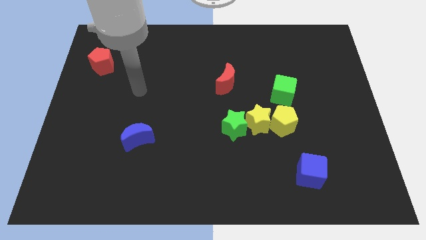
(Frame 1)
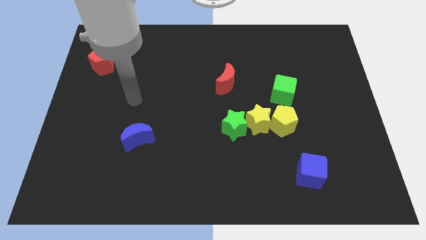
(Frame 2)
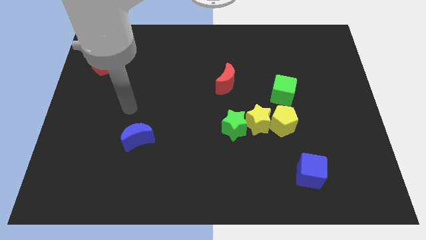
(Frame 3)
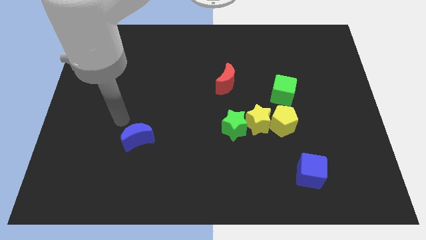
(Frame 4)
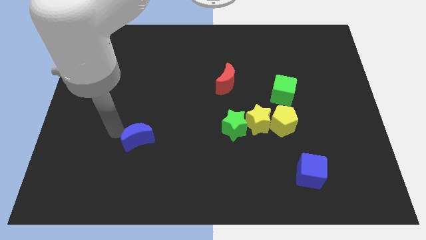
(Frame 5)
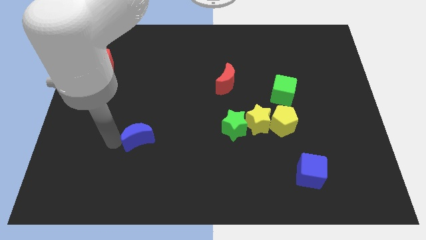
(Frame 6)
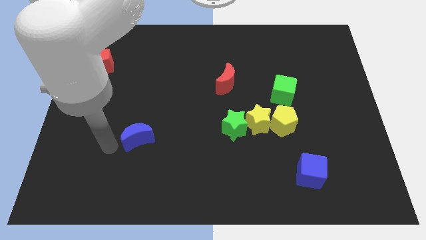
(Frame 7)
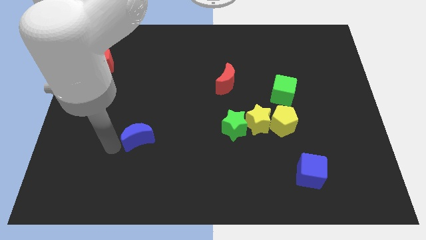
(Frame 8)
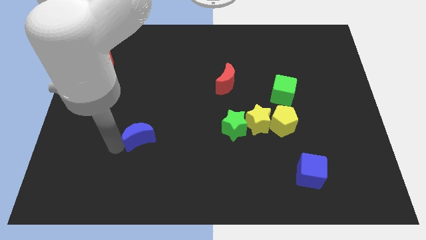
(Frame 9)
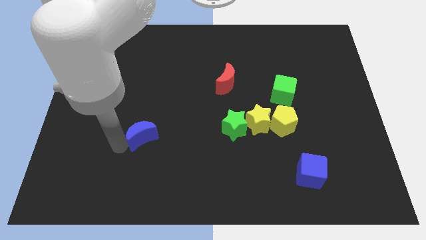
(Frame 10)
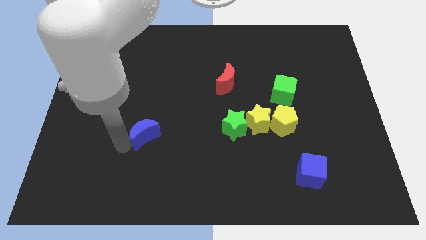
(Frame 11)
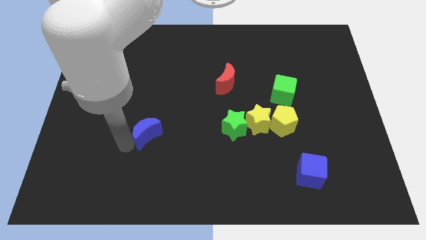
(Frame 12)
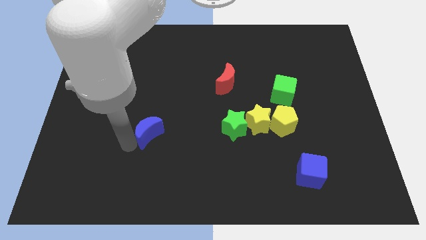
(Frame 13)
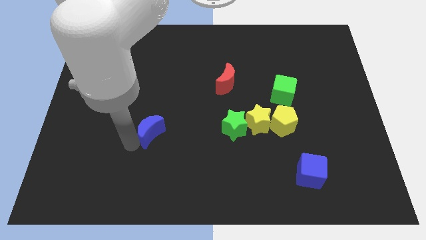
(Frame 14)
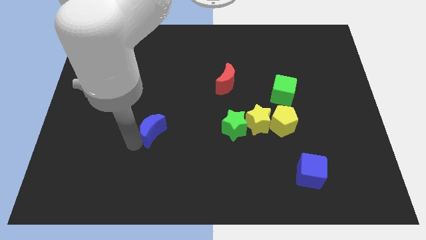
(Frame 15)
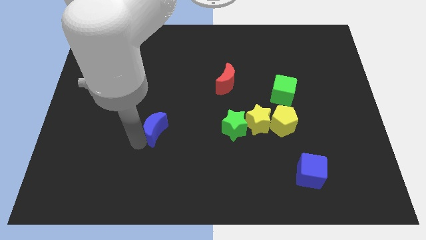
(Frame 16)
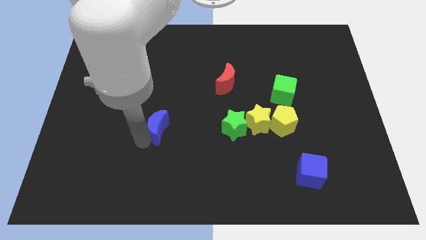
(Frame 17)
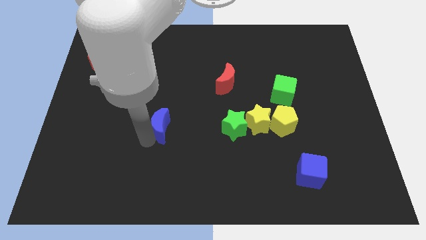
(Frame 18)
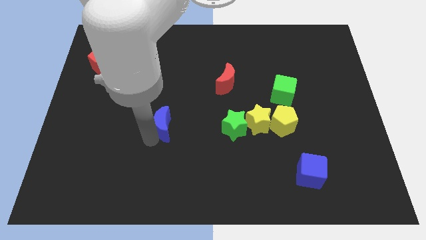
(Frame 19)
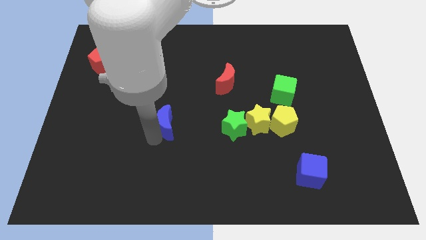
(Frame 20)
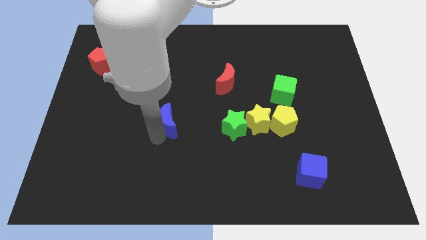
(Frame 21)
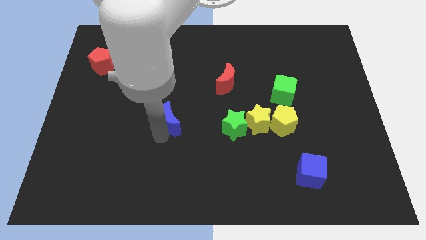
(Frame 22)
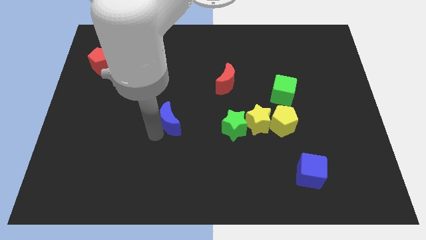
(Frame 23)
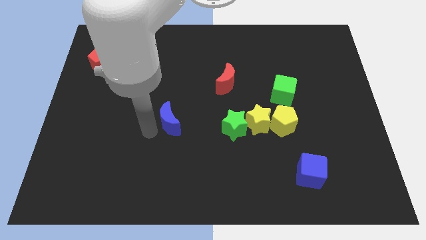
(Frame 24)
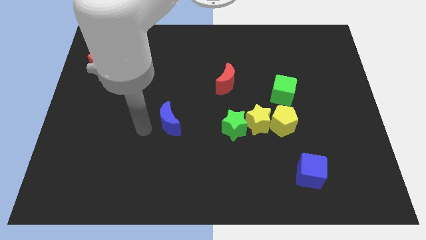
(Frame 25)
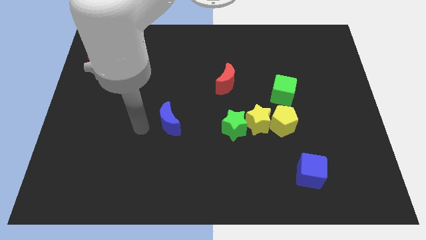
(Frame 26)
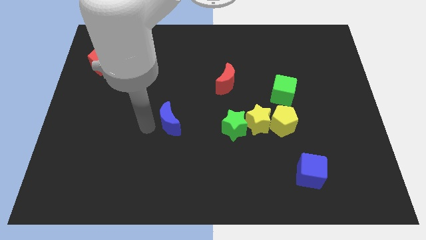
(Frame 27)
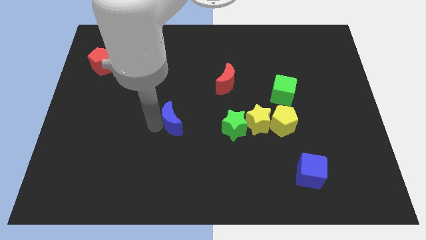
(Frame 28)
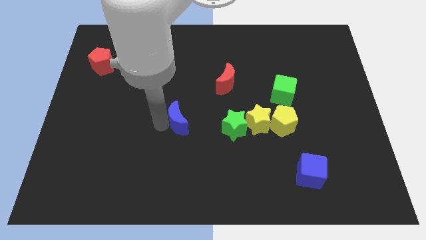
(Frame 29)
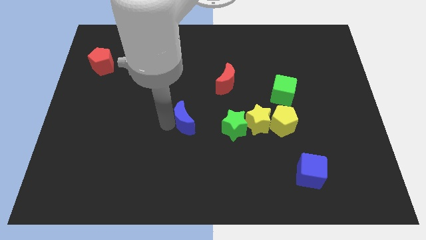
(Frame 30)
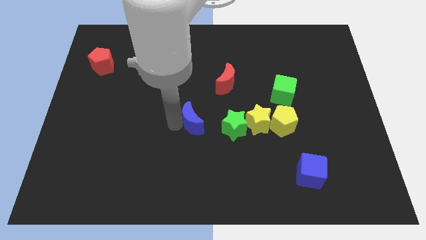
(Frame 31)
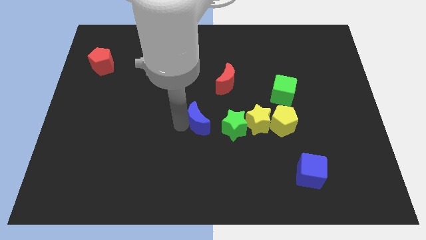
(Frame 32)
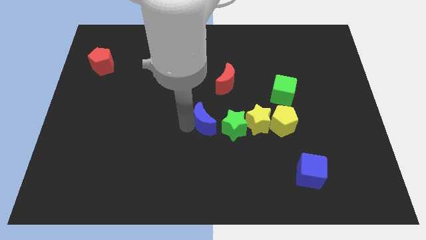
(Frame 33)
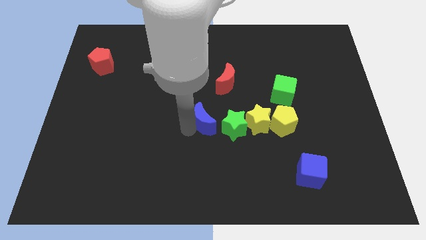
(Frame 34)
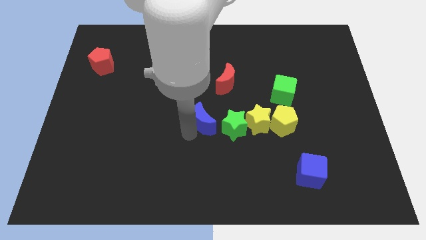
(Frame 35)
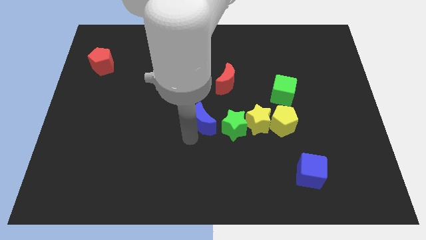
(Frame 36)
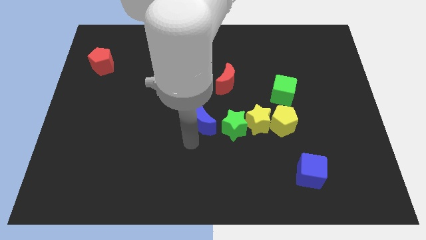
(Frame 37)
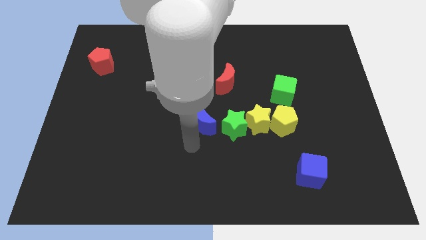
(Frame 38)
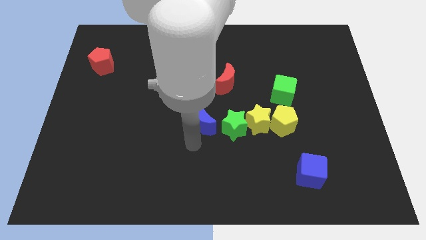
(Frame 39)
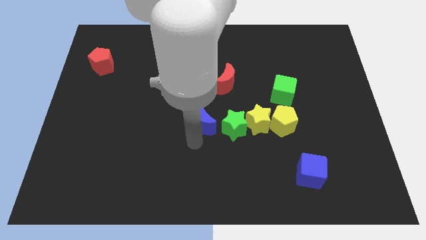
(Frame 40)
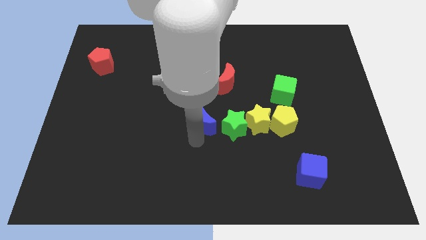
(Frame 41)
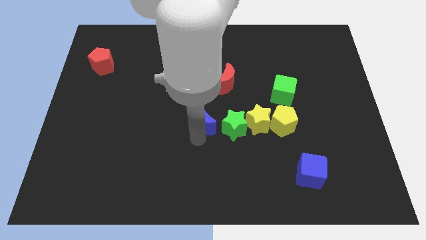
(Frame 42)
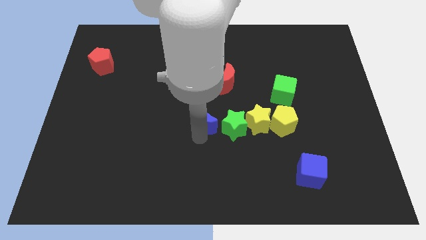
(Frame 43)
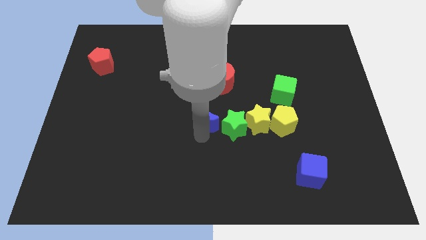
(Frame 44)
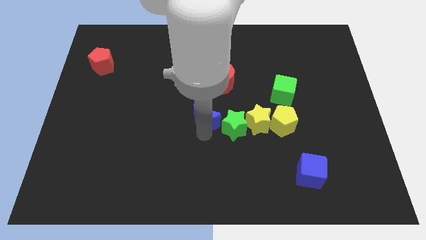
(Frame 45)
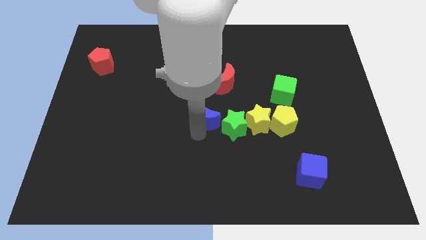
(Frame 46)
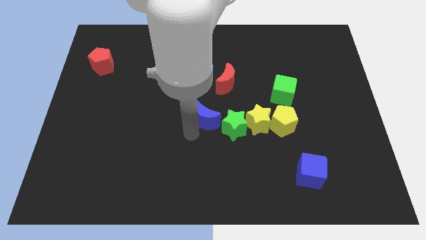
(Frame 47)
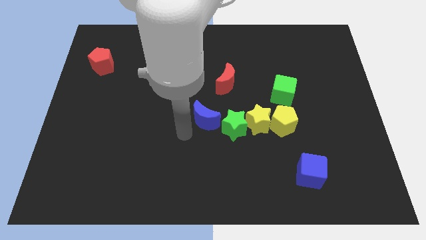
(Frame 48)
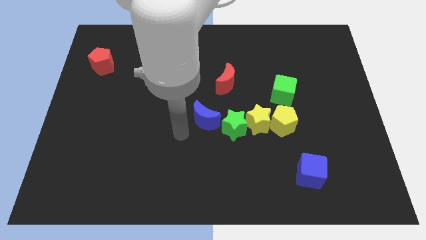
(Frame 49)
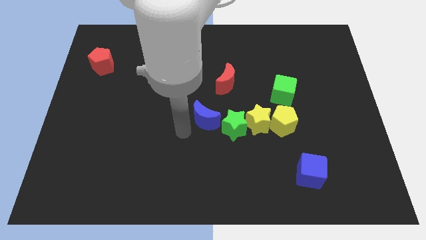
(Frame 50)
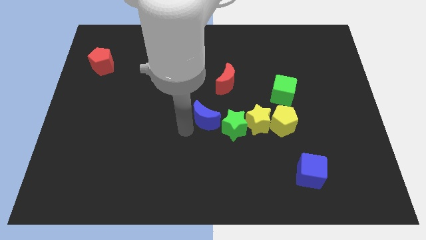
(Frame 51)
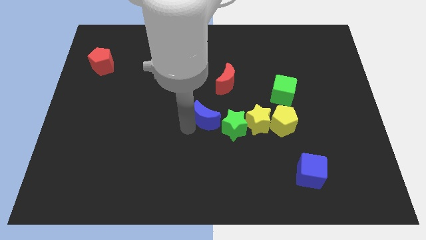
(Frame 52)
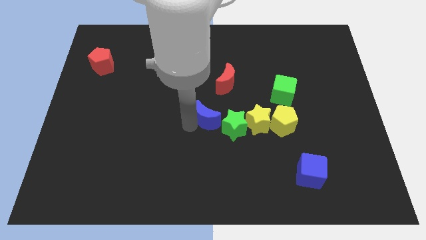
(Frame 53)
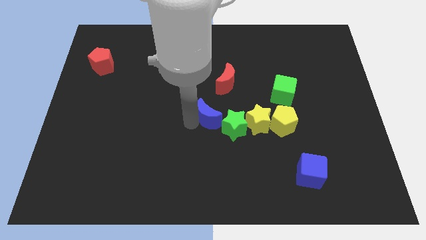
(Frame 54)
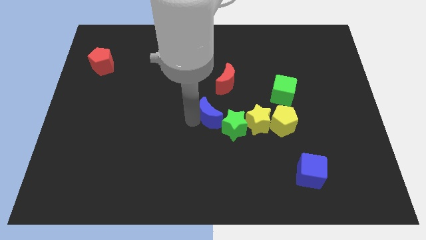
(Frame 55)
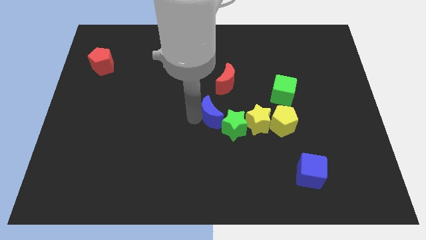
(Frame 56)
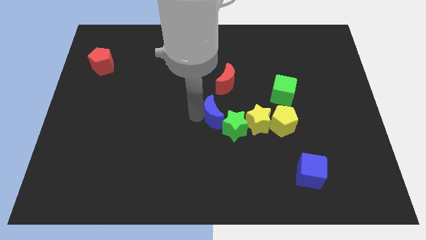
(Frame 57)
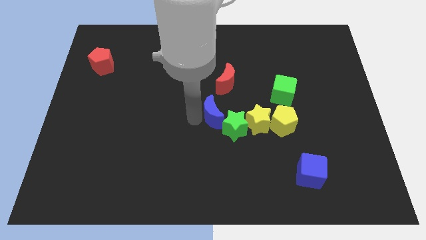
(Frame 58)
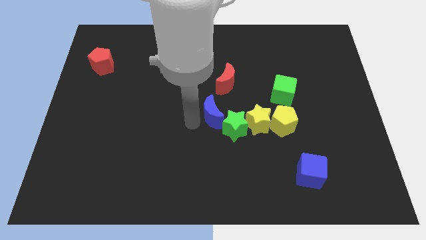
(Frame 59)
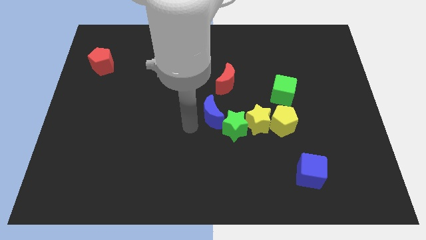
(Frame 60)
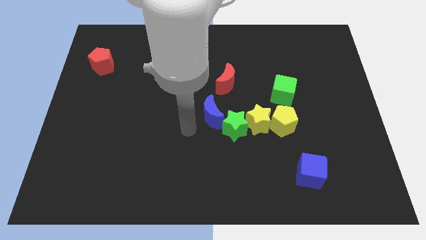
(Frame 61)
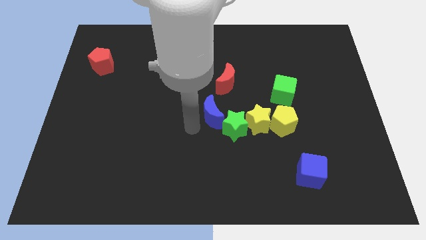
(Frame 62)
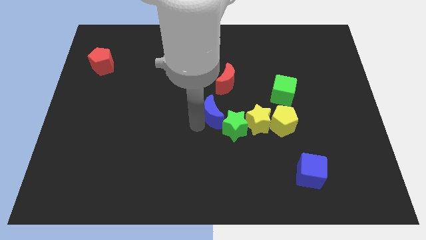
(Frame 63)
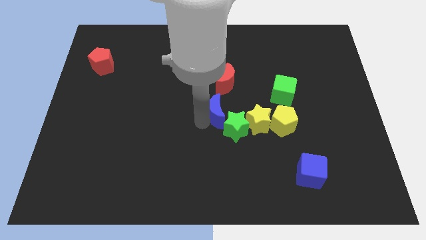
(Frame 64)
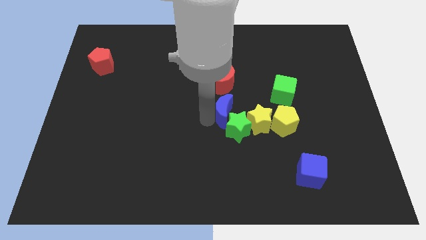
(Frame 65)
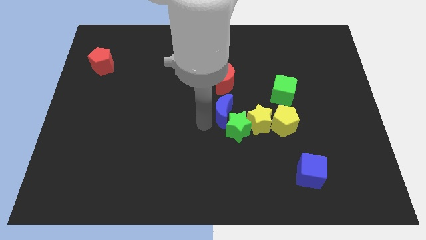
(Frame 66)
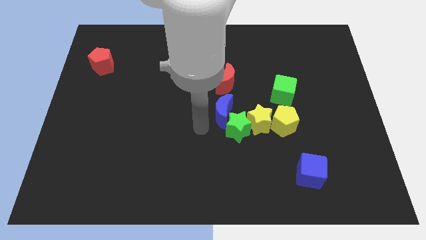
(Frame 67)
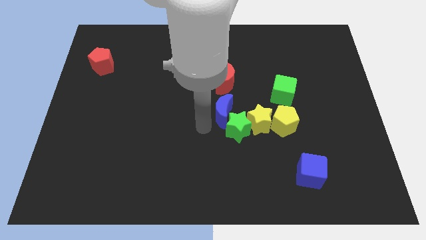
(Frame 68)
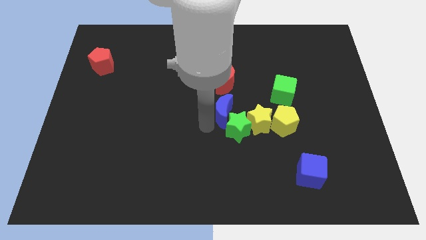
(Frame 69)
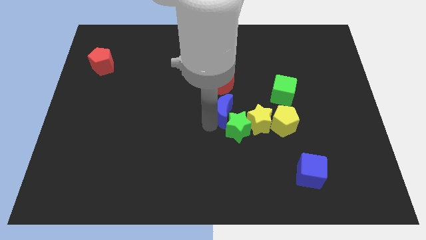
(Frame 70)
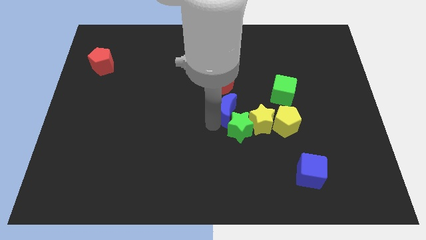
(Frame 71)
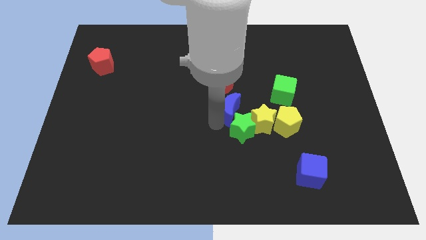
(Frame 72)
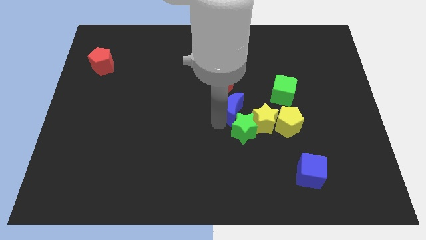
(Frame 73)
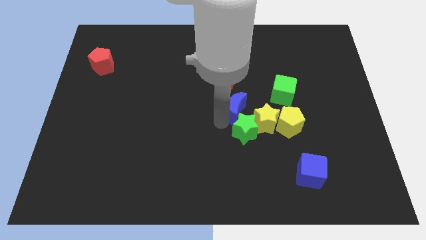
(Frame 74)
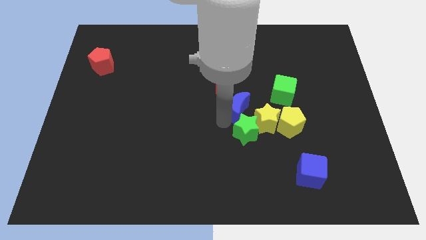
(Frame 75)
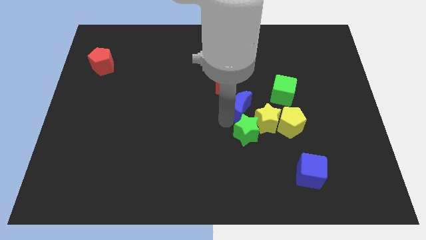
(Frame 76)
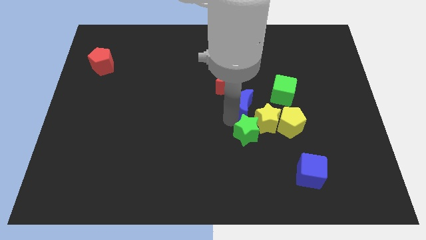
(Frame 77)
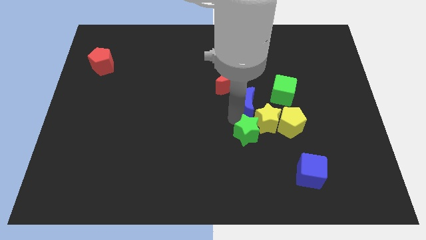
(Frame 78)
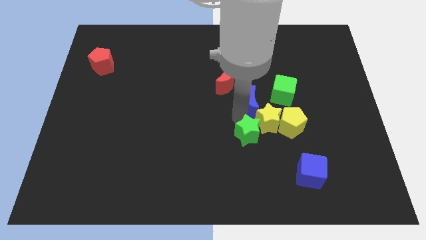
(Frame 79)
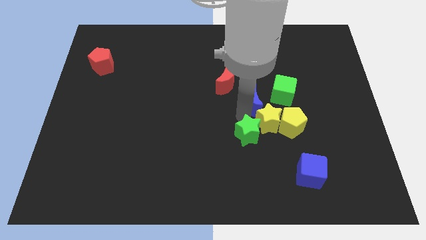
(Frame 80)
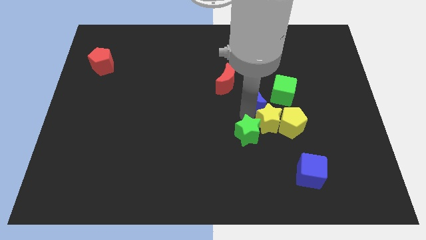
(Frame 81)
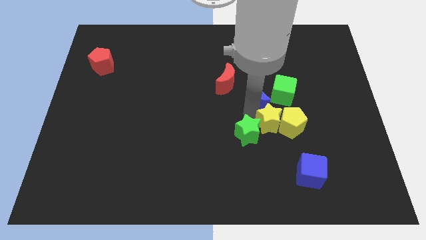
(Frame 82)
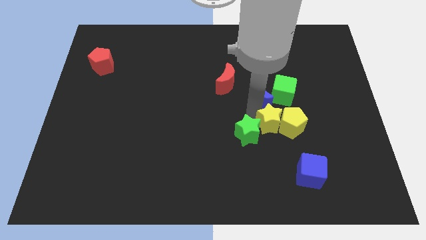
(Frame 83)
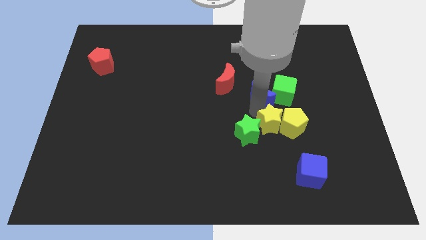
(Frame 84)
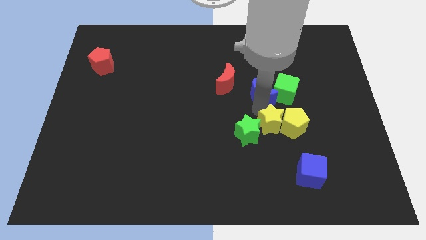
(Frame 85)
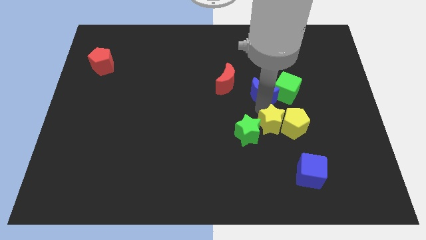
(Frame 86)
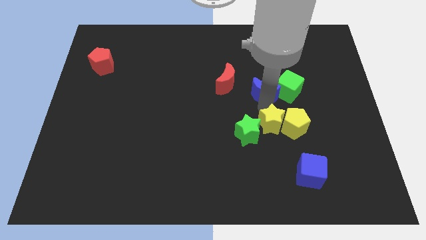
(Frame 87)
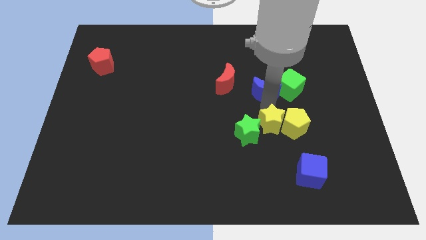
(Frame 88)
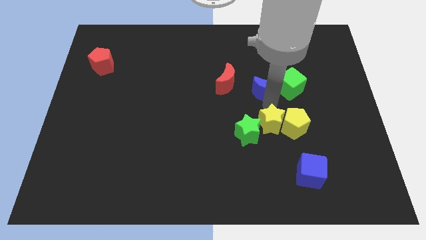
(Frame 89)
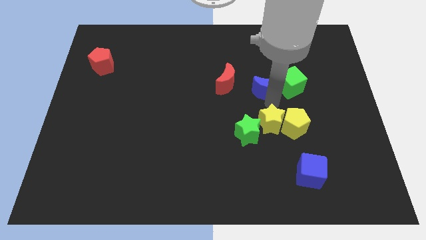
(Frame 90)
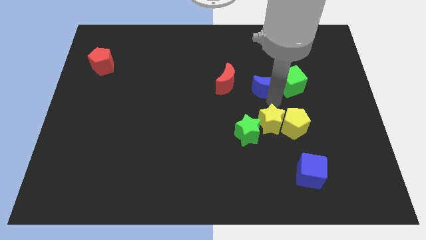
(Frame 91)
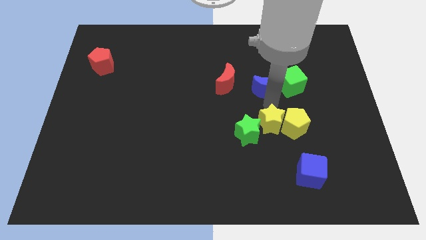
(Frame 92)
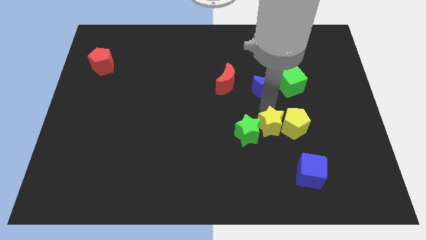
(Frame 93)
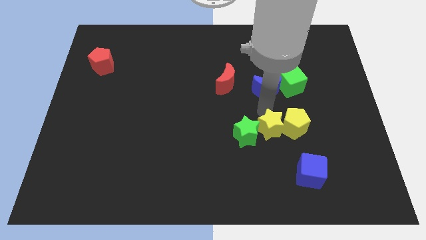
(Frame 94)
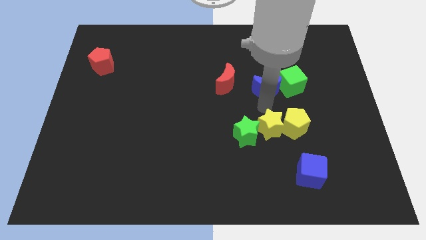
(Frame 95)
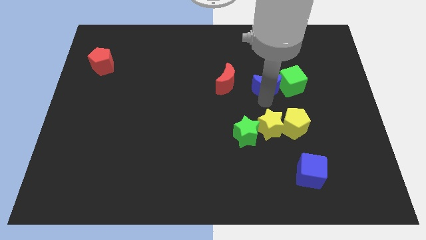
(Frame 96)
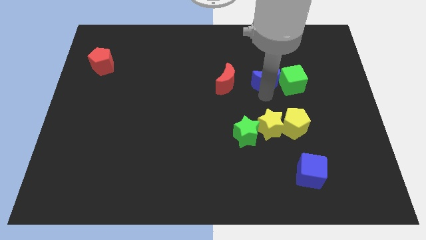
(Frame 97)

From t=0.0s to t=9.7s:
move the blue moon to the top left of the green cube
